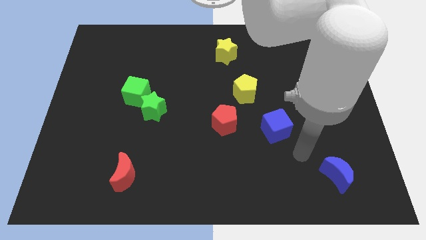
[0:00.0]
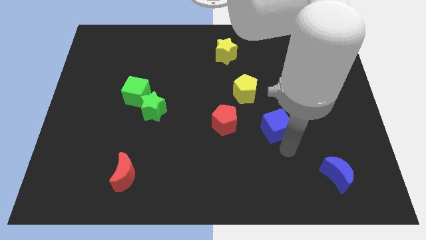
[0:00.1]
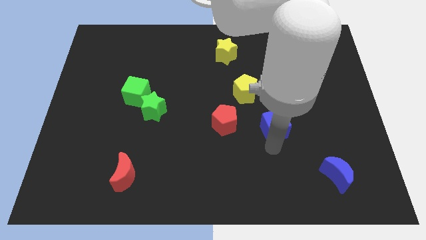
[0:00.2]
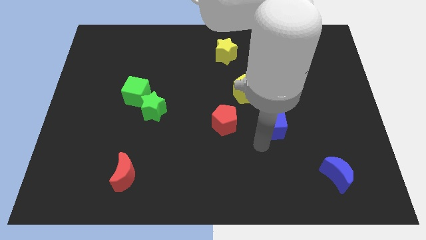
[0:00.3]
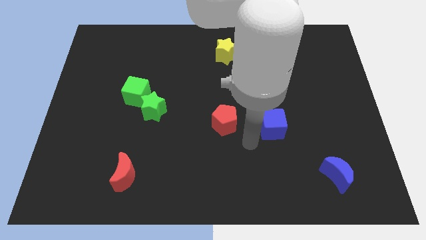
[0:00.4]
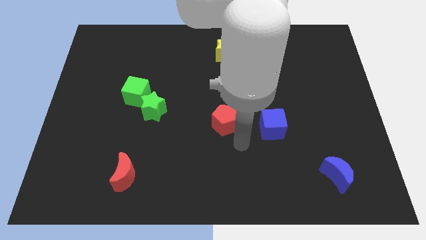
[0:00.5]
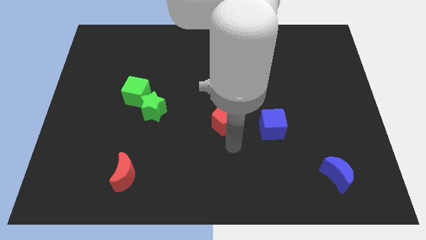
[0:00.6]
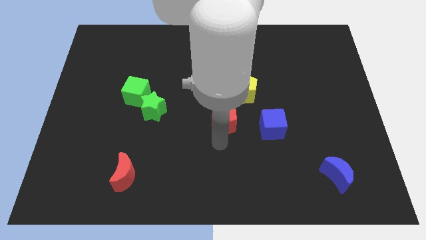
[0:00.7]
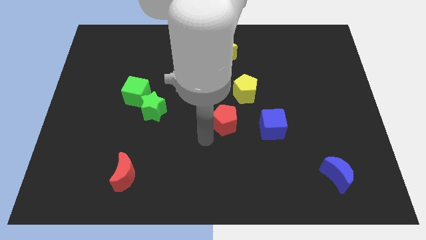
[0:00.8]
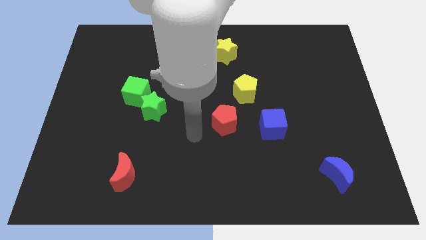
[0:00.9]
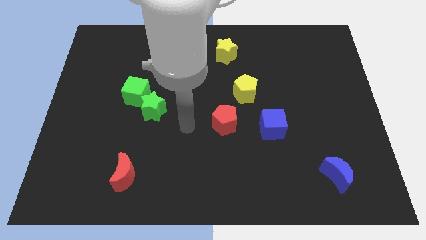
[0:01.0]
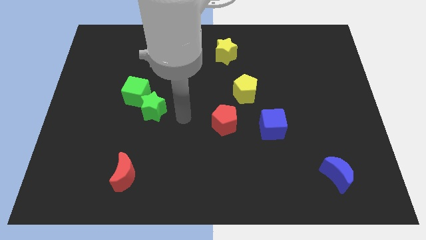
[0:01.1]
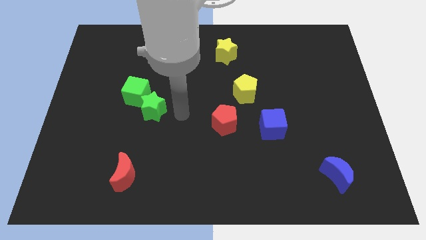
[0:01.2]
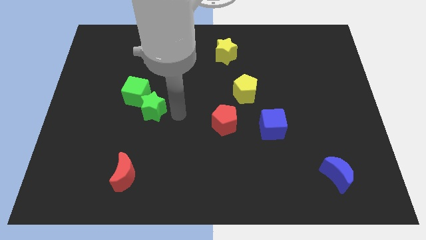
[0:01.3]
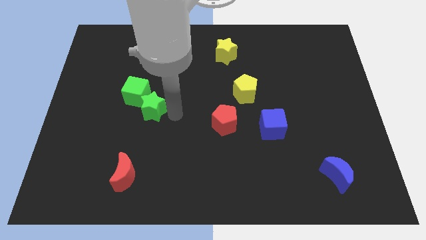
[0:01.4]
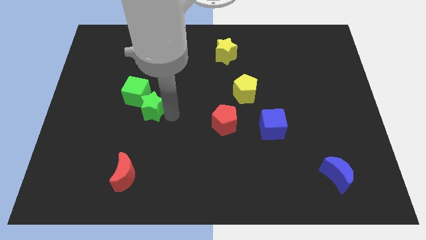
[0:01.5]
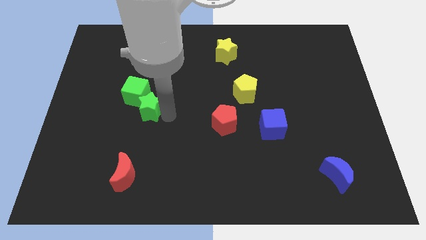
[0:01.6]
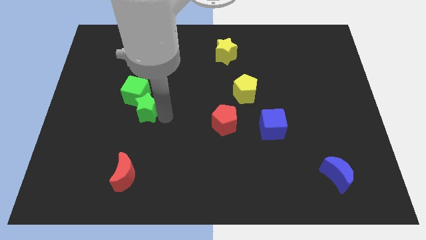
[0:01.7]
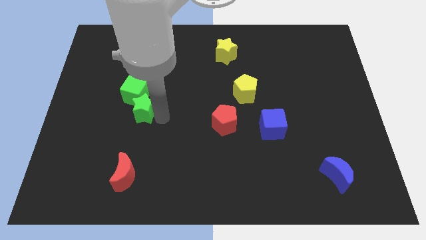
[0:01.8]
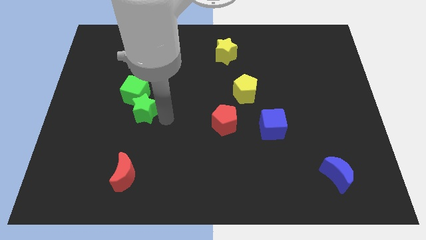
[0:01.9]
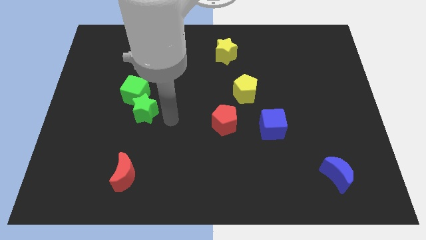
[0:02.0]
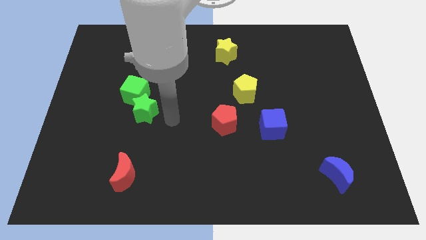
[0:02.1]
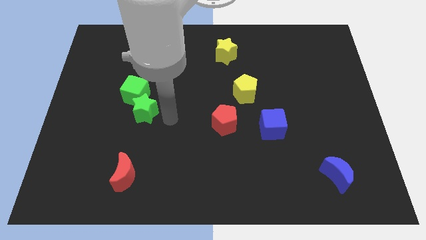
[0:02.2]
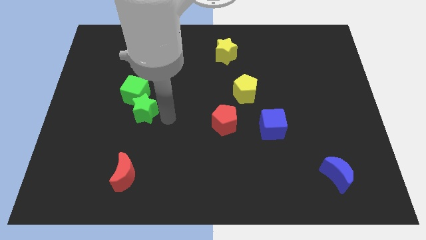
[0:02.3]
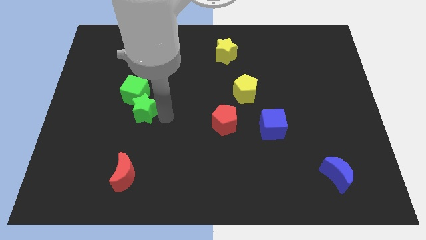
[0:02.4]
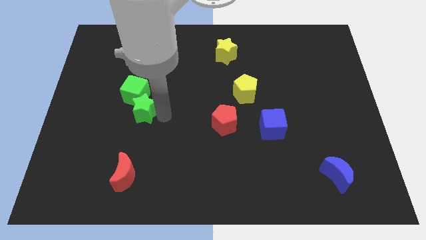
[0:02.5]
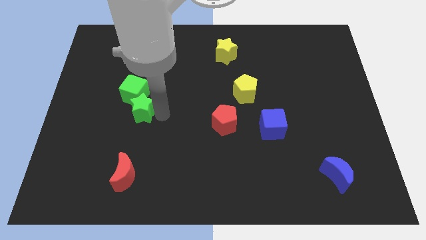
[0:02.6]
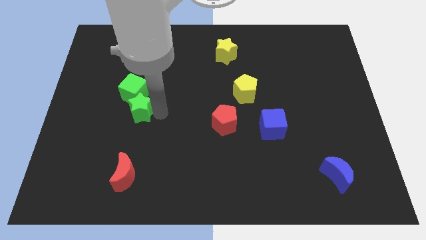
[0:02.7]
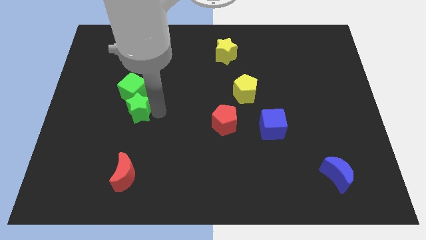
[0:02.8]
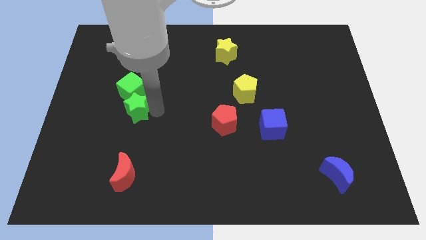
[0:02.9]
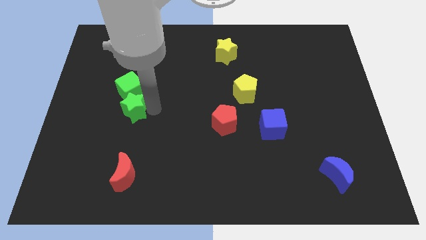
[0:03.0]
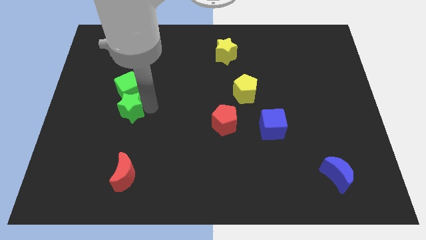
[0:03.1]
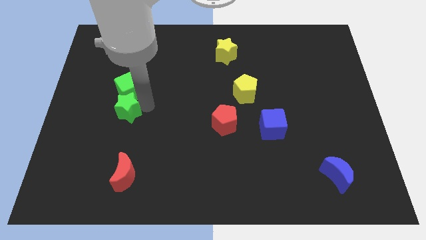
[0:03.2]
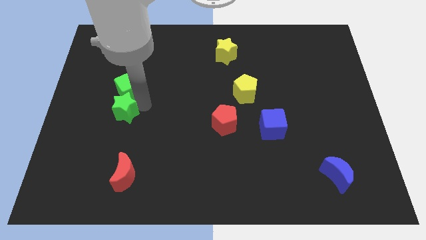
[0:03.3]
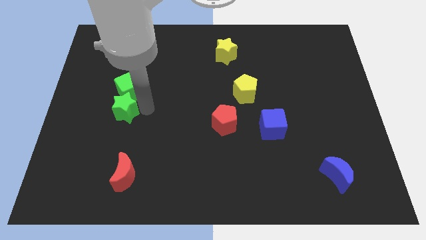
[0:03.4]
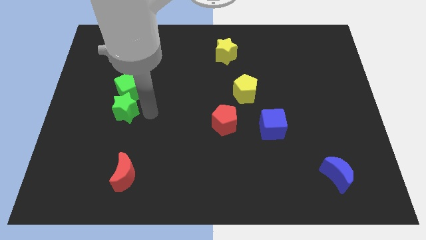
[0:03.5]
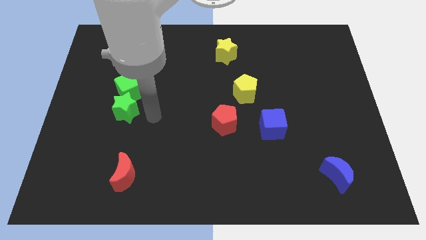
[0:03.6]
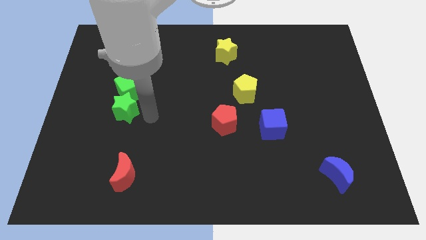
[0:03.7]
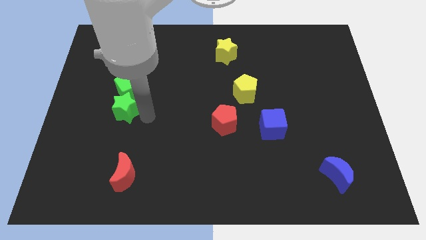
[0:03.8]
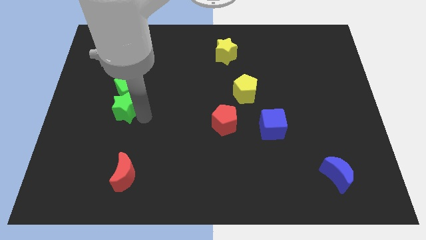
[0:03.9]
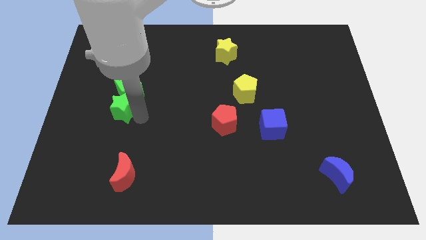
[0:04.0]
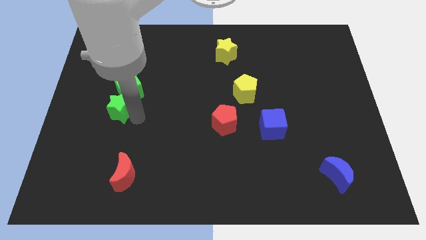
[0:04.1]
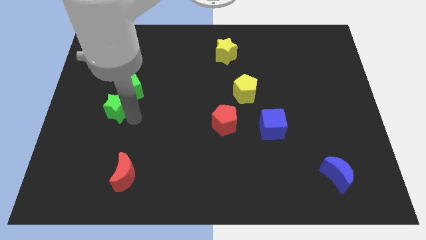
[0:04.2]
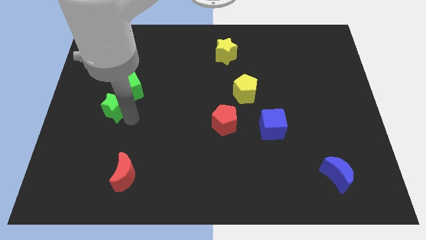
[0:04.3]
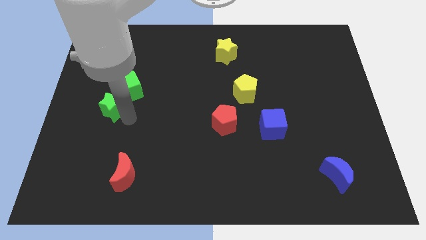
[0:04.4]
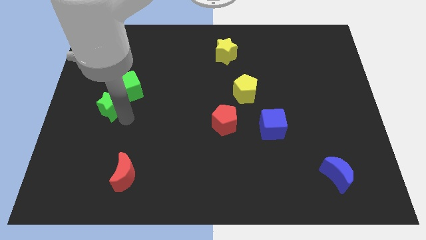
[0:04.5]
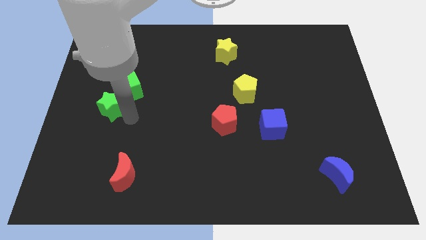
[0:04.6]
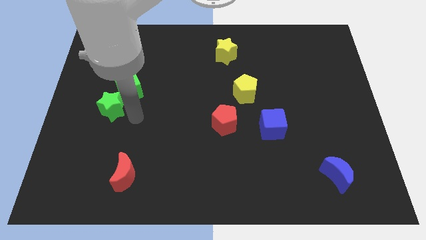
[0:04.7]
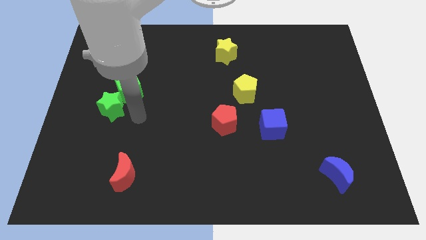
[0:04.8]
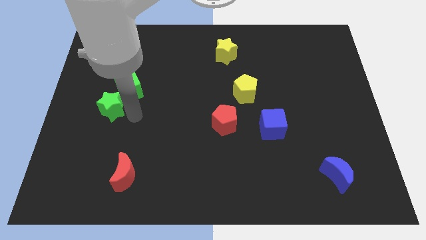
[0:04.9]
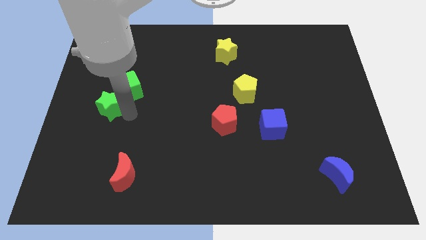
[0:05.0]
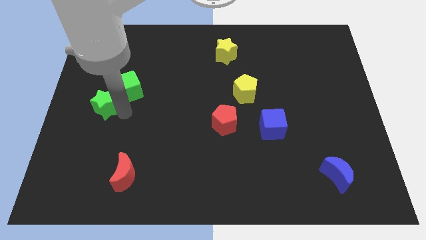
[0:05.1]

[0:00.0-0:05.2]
push the green star to the left side of the board

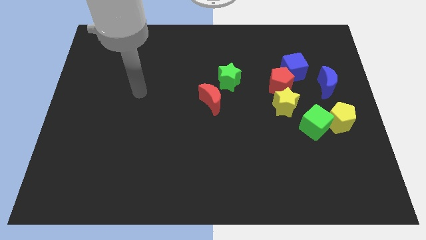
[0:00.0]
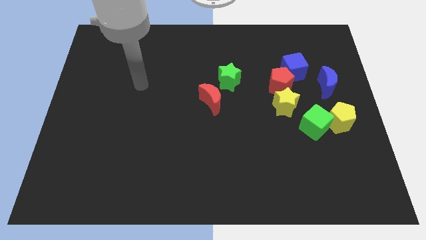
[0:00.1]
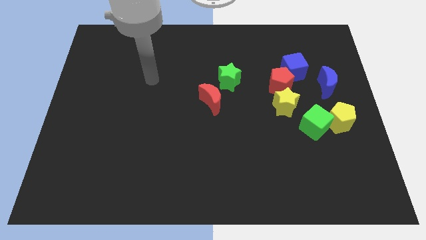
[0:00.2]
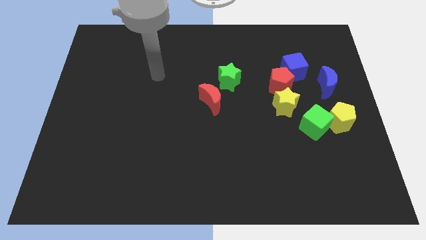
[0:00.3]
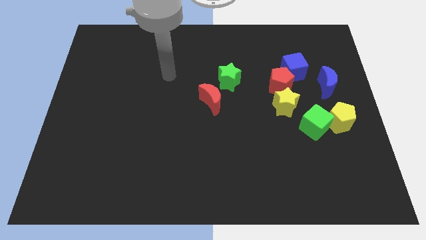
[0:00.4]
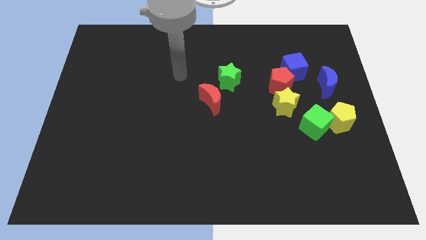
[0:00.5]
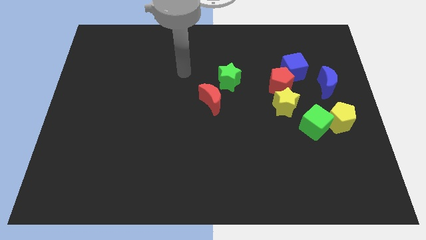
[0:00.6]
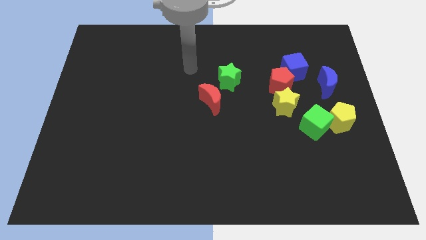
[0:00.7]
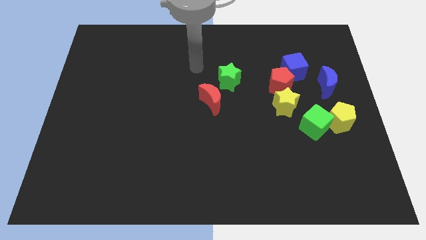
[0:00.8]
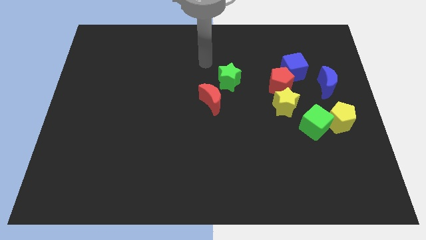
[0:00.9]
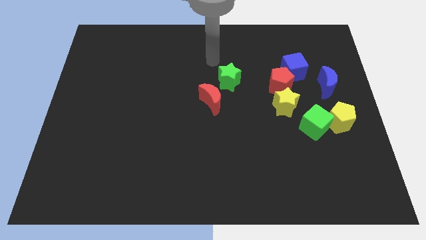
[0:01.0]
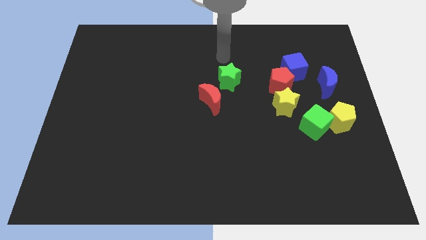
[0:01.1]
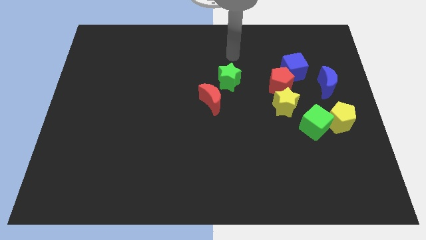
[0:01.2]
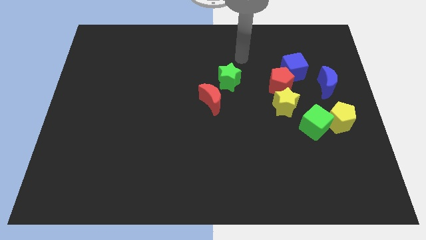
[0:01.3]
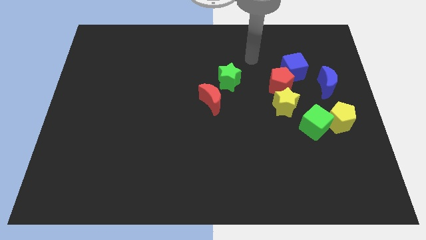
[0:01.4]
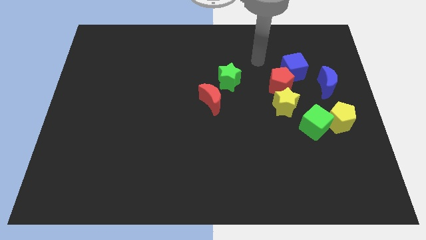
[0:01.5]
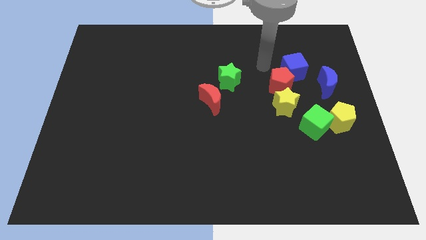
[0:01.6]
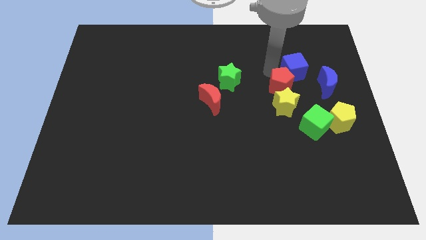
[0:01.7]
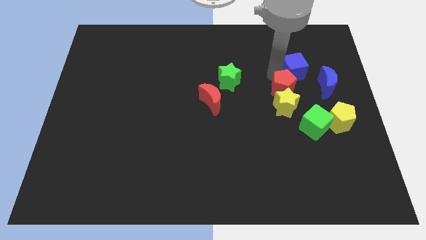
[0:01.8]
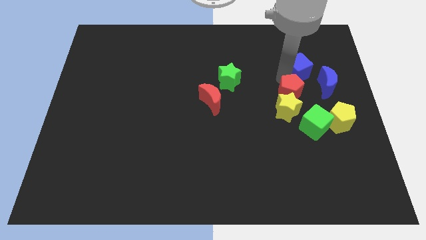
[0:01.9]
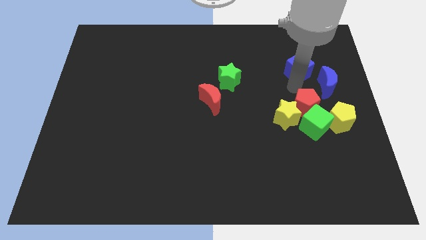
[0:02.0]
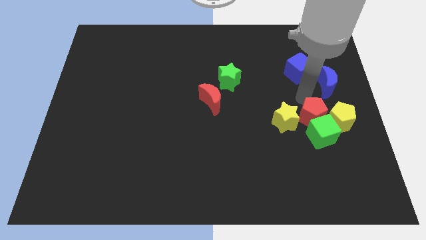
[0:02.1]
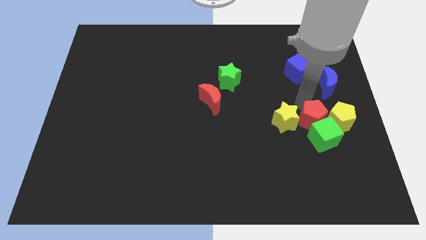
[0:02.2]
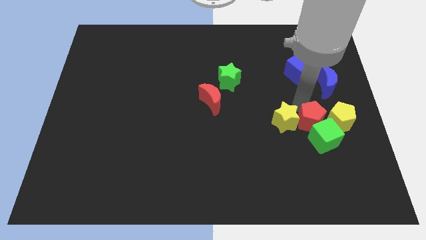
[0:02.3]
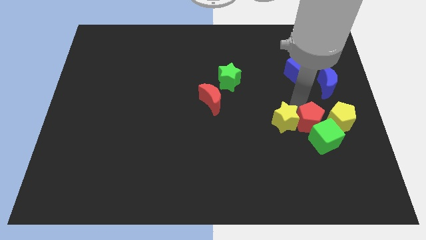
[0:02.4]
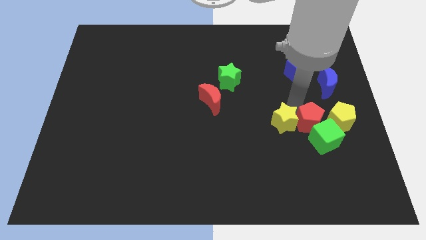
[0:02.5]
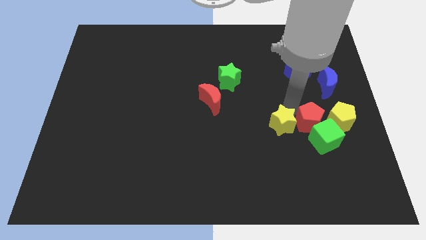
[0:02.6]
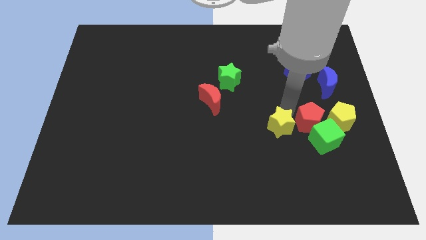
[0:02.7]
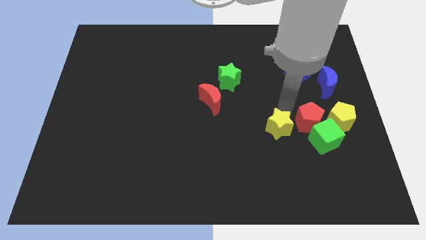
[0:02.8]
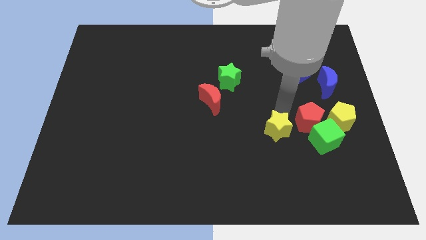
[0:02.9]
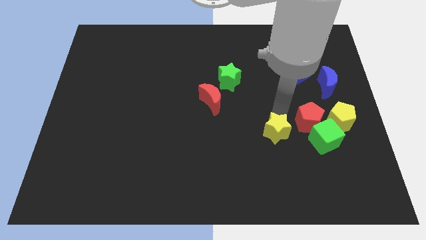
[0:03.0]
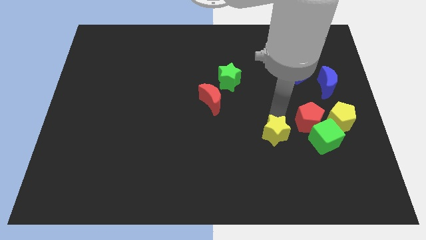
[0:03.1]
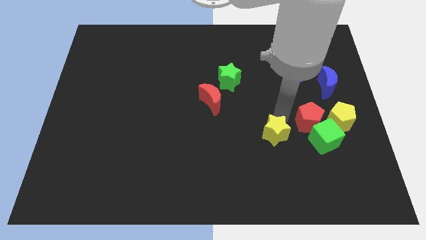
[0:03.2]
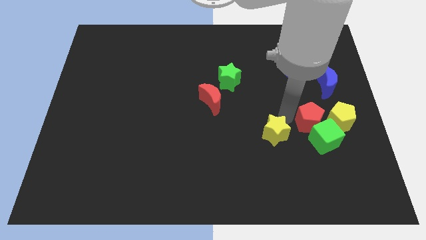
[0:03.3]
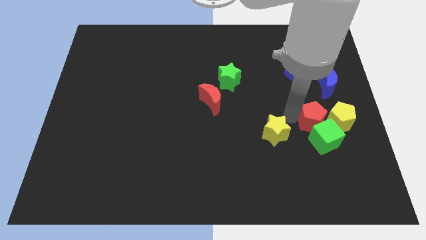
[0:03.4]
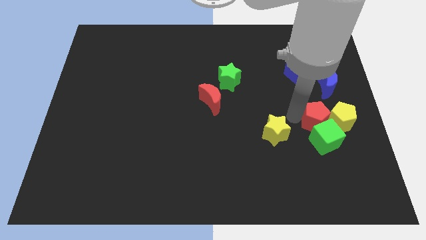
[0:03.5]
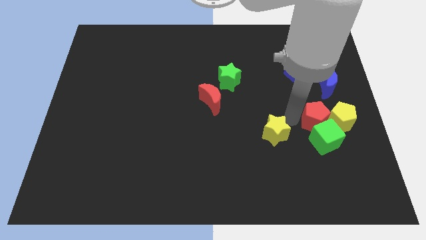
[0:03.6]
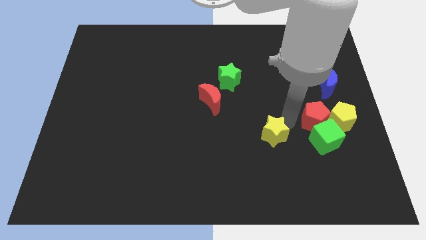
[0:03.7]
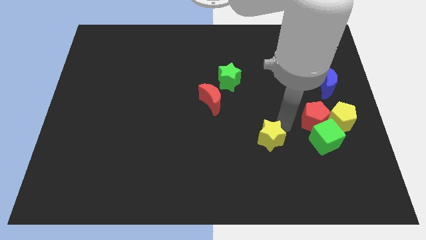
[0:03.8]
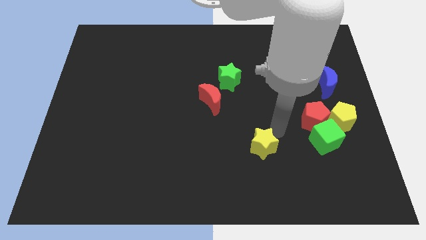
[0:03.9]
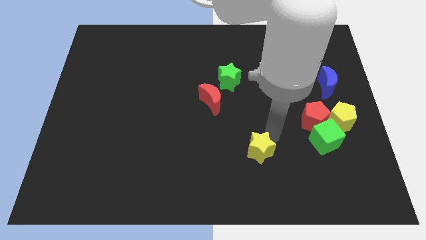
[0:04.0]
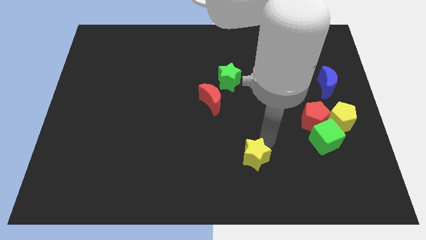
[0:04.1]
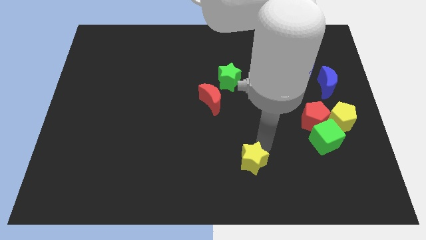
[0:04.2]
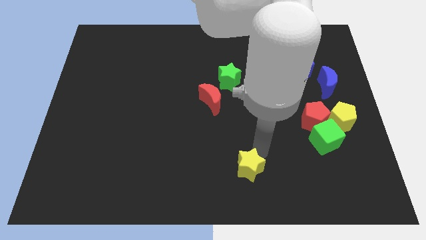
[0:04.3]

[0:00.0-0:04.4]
slide the yellow star to the bottom side
